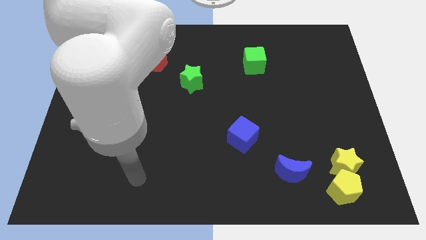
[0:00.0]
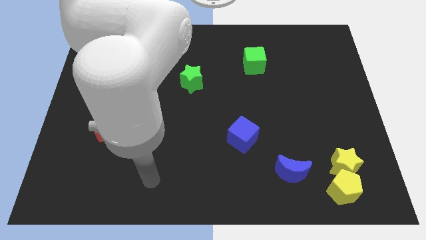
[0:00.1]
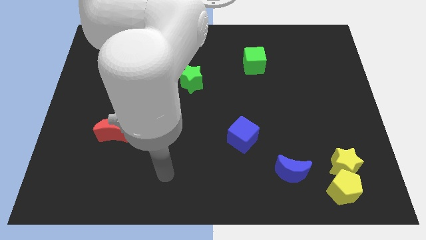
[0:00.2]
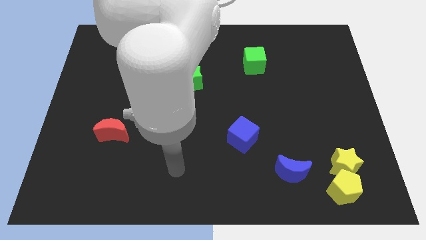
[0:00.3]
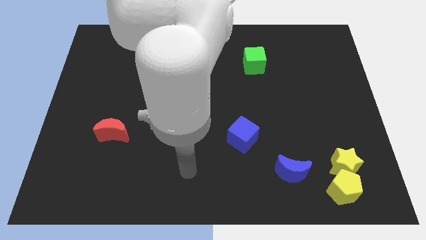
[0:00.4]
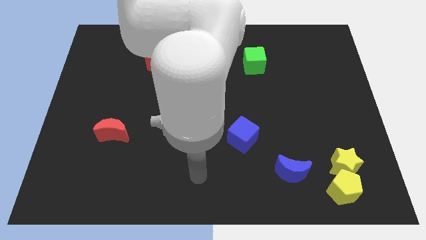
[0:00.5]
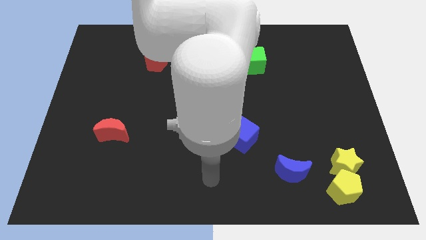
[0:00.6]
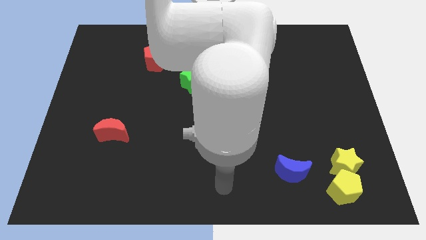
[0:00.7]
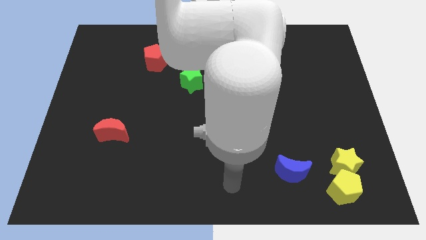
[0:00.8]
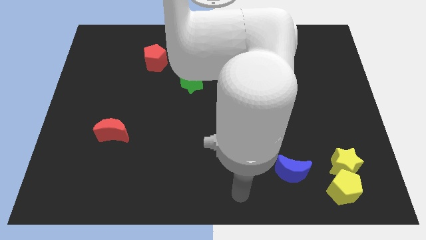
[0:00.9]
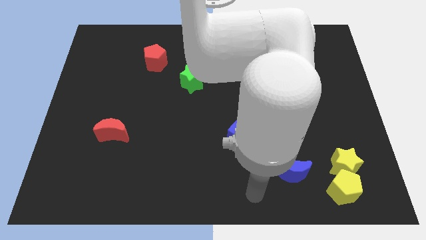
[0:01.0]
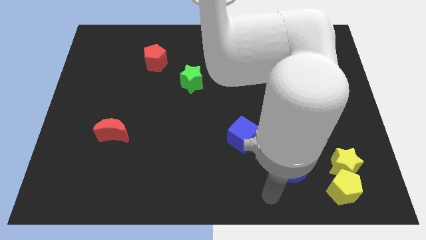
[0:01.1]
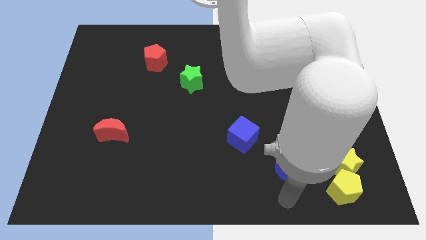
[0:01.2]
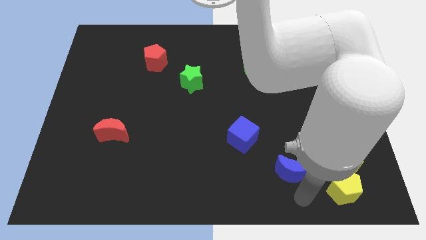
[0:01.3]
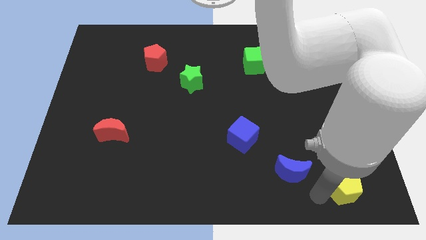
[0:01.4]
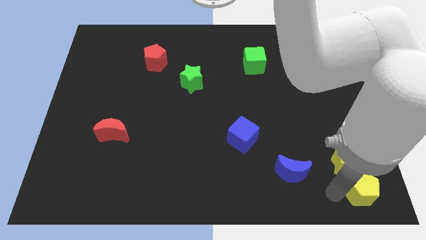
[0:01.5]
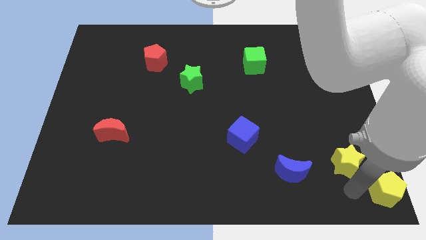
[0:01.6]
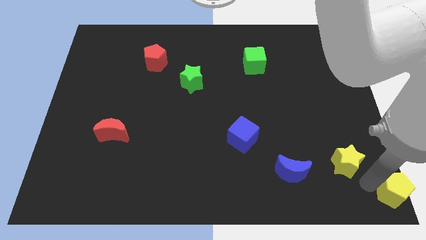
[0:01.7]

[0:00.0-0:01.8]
separate the yellow star from the yellow pentagon

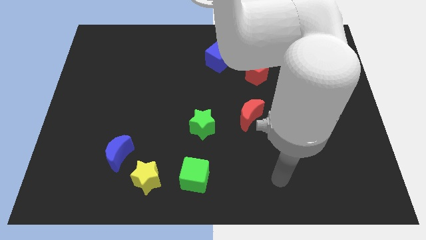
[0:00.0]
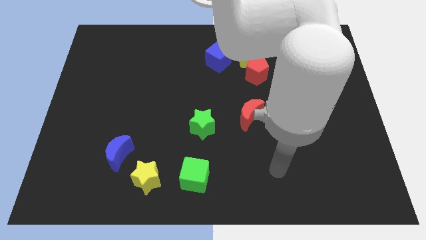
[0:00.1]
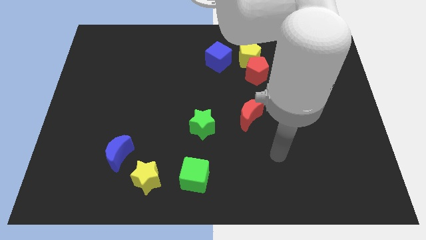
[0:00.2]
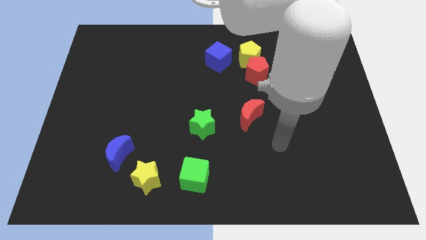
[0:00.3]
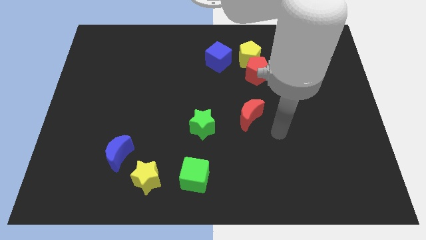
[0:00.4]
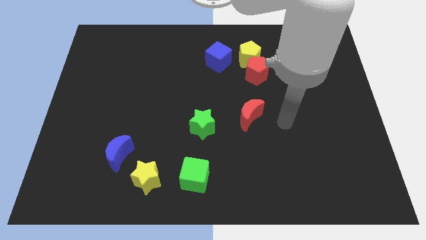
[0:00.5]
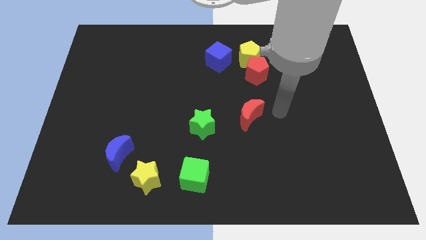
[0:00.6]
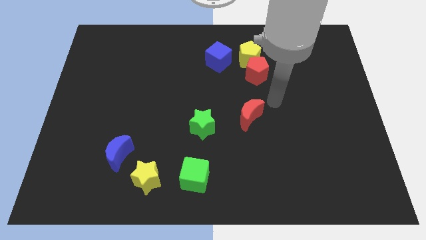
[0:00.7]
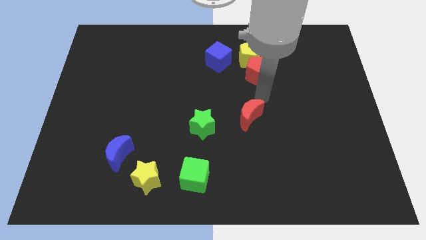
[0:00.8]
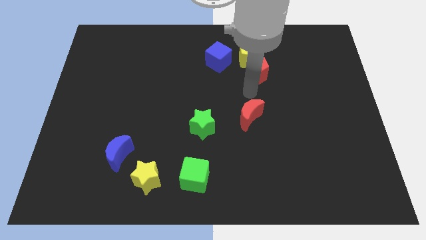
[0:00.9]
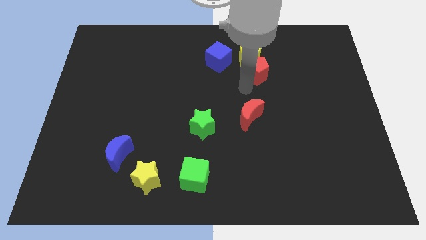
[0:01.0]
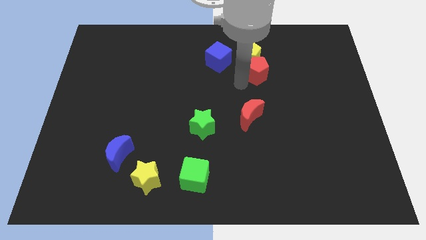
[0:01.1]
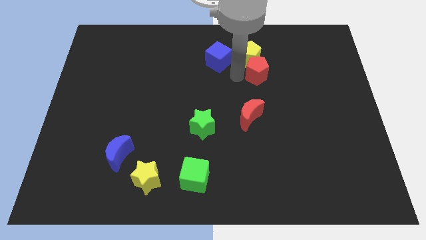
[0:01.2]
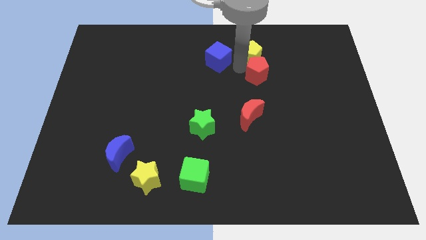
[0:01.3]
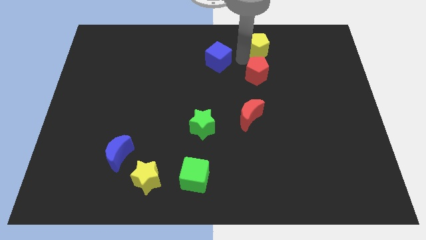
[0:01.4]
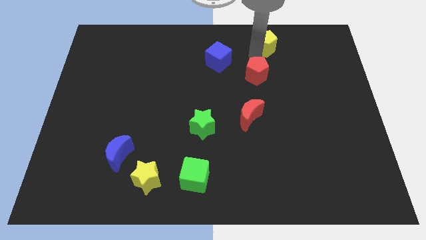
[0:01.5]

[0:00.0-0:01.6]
pull the red pentagon apart from the yellow pentagon

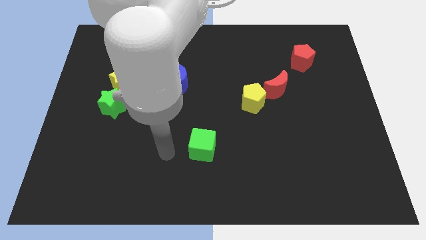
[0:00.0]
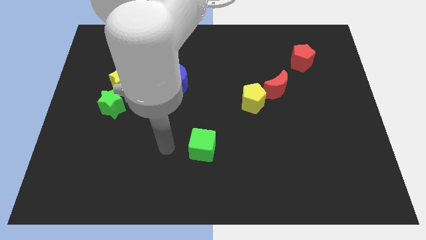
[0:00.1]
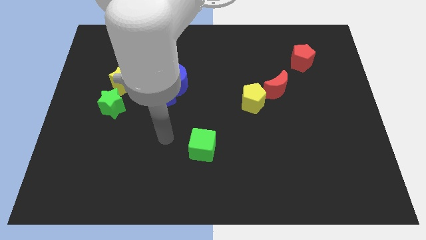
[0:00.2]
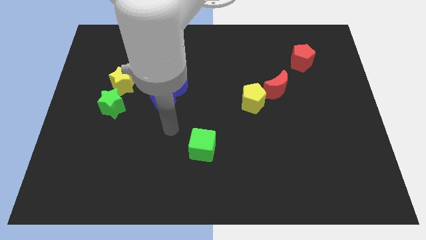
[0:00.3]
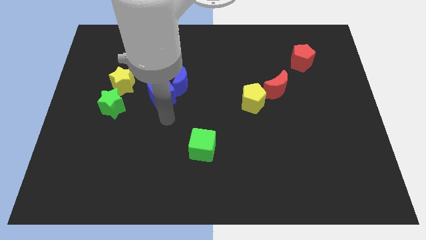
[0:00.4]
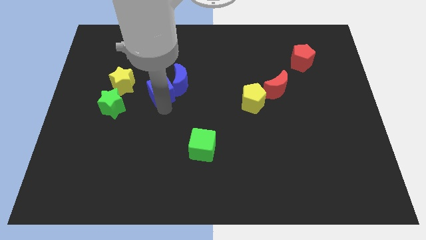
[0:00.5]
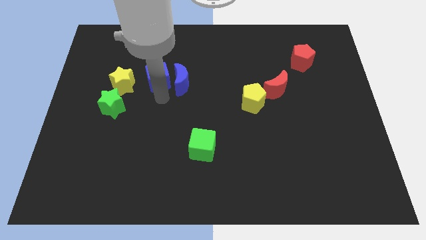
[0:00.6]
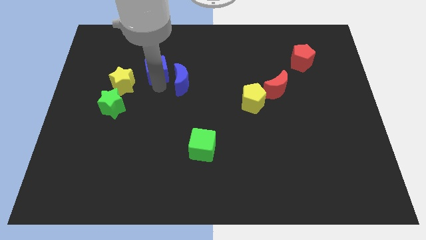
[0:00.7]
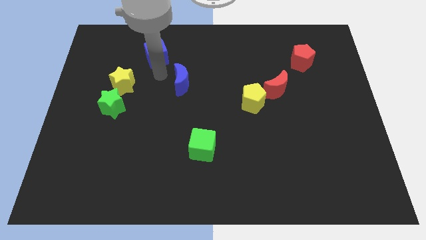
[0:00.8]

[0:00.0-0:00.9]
move the blue moon away from the blue cube

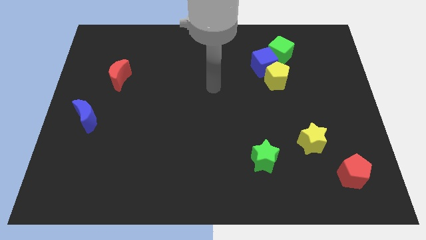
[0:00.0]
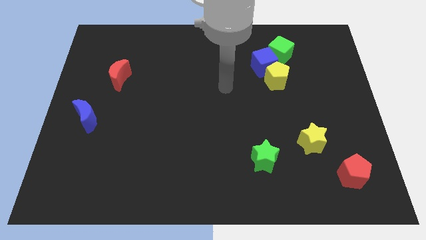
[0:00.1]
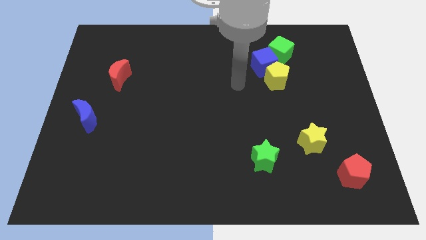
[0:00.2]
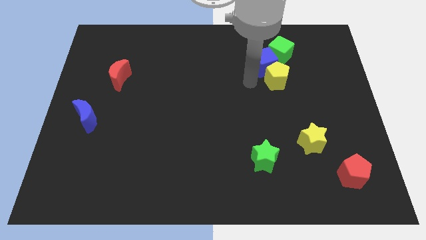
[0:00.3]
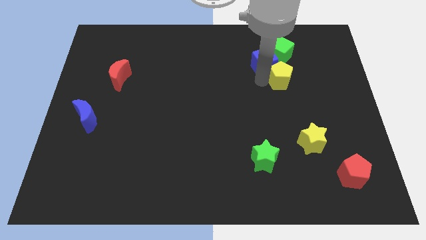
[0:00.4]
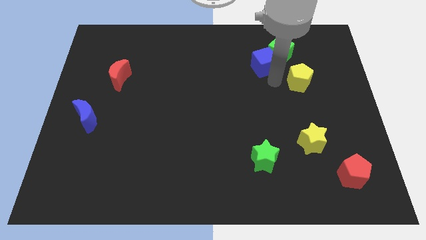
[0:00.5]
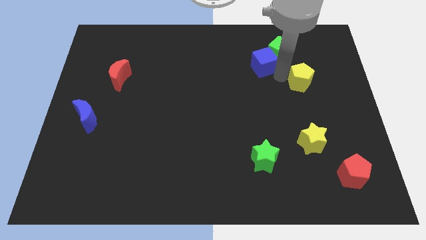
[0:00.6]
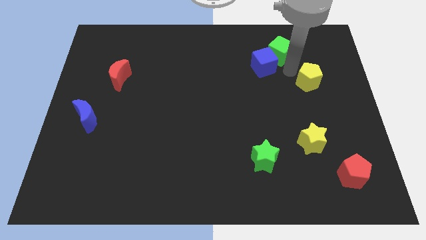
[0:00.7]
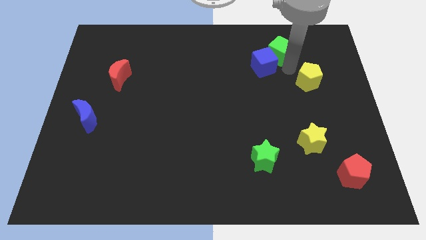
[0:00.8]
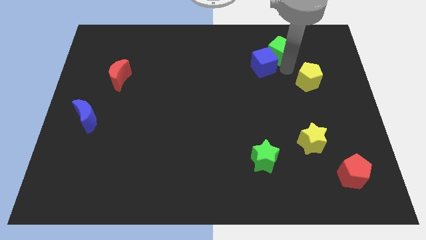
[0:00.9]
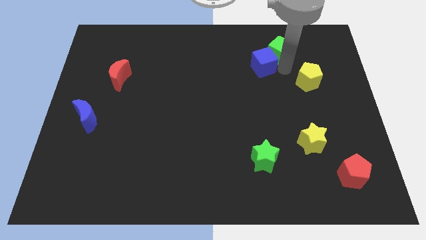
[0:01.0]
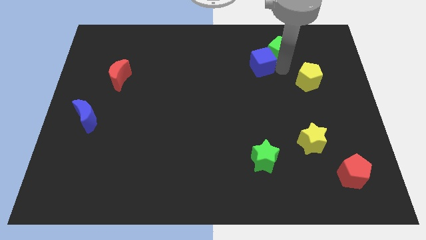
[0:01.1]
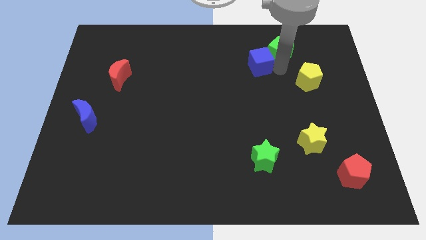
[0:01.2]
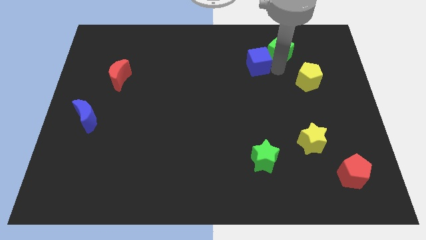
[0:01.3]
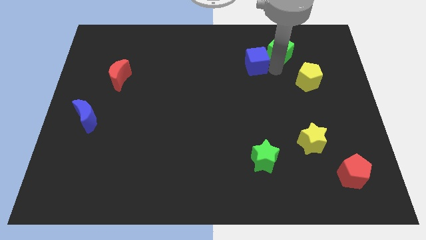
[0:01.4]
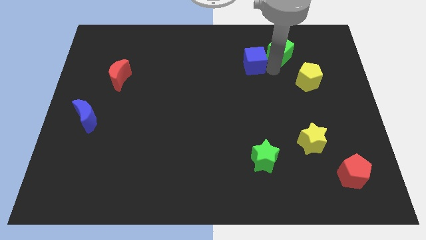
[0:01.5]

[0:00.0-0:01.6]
pull the blue cube apart from the yellow pentagon and green cube

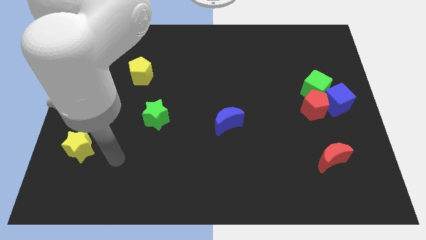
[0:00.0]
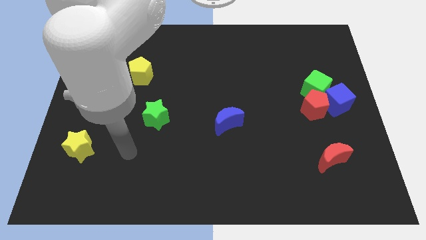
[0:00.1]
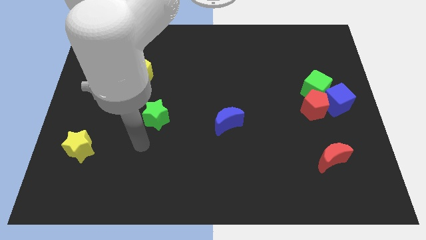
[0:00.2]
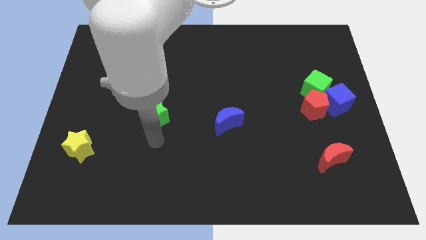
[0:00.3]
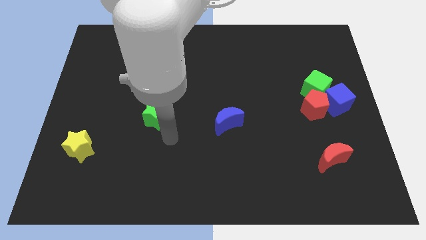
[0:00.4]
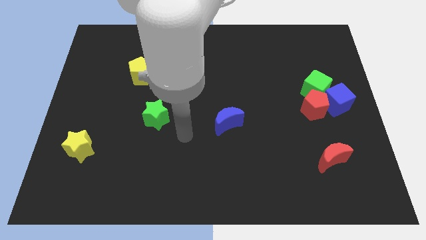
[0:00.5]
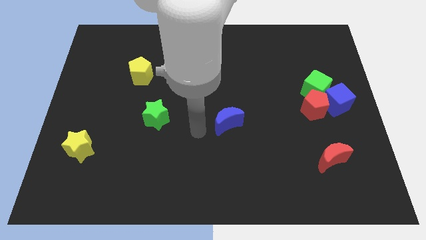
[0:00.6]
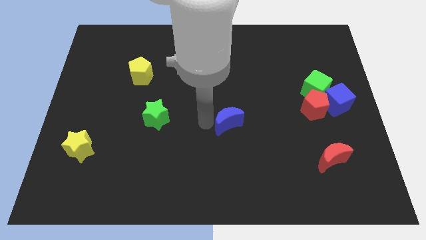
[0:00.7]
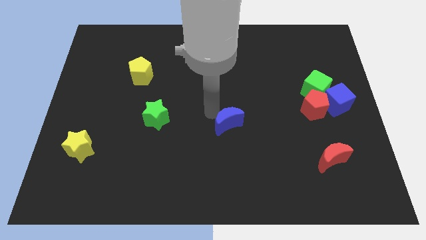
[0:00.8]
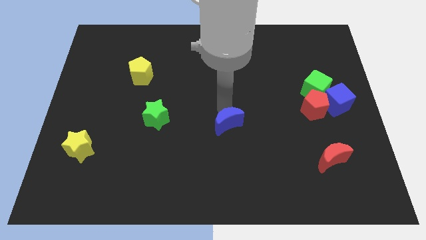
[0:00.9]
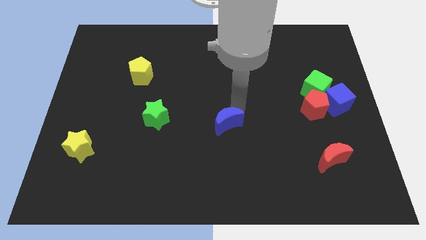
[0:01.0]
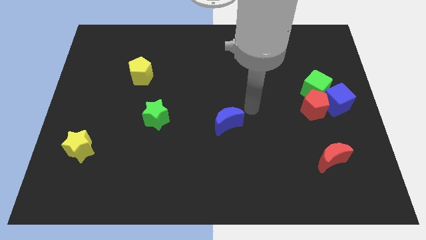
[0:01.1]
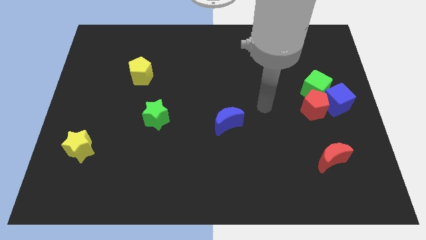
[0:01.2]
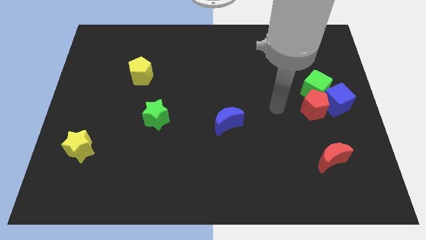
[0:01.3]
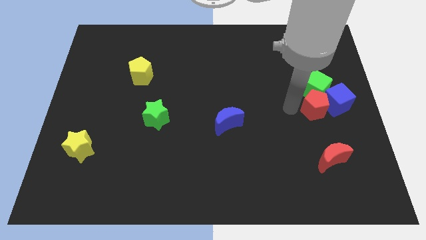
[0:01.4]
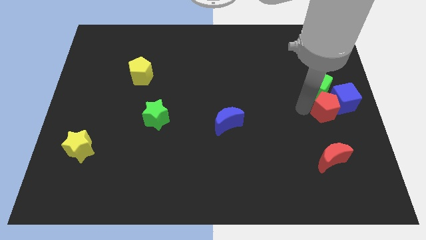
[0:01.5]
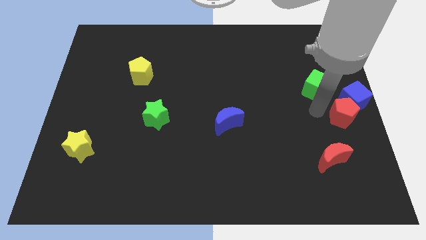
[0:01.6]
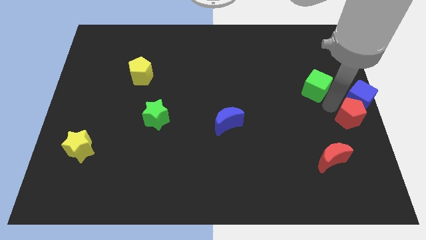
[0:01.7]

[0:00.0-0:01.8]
move the green cube away from the red pentagon and blue cube

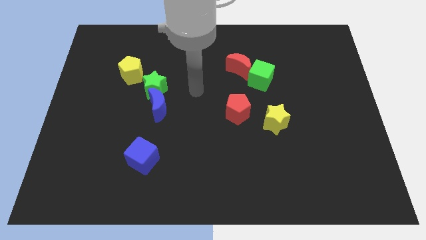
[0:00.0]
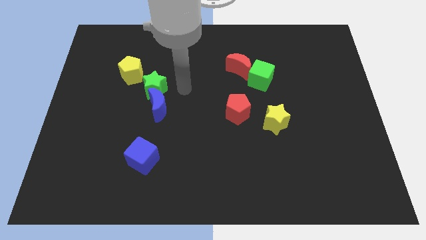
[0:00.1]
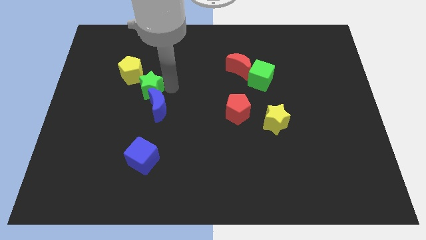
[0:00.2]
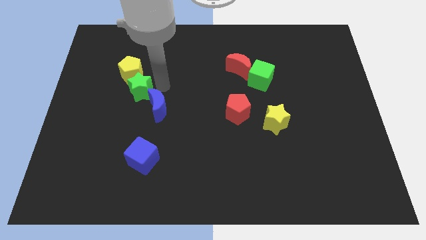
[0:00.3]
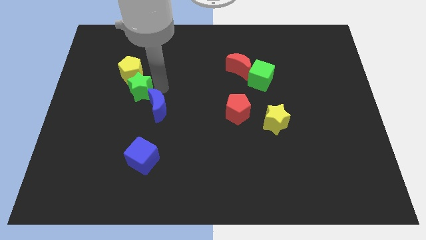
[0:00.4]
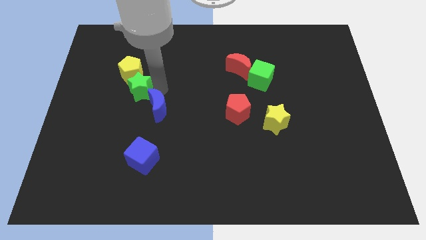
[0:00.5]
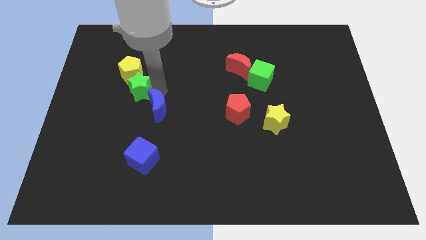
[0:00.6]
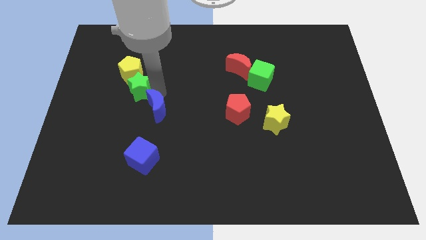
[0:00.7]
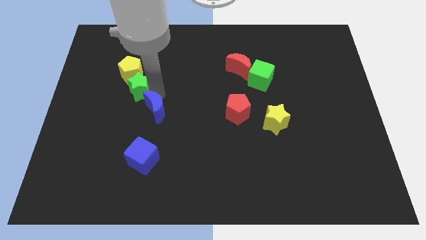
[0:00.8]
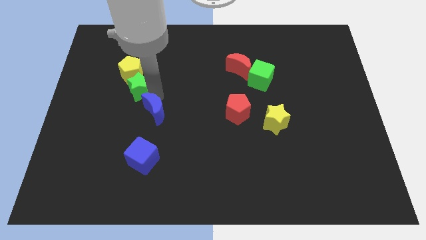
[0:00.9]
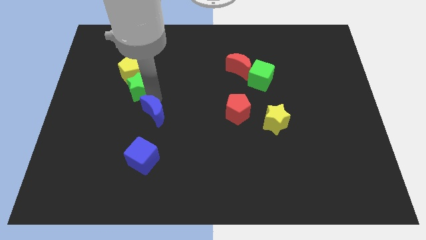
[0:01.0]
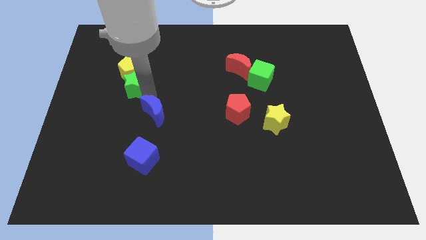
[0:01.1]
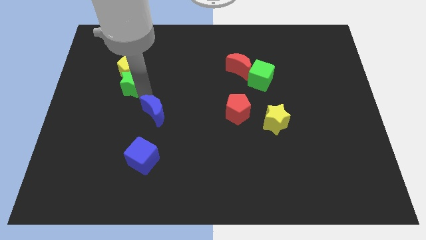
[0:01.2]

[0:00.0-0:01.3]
move the blue moon away from the green star

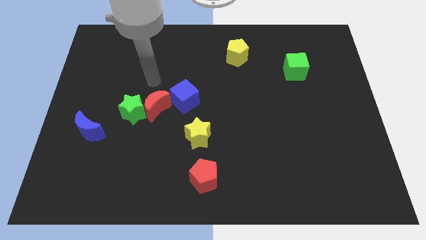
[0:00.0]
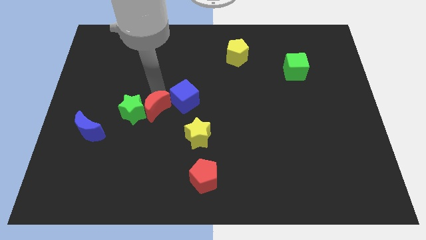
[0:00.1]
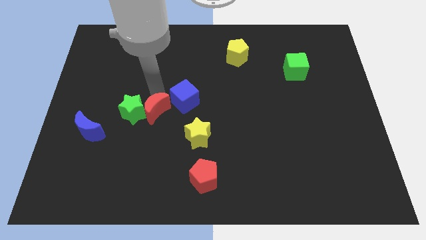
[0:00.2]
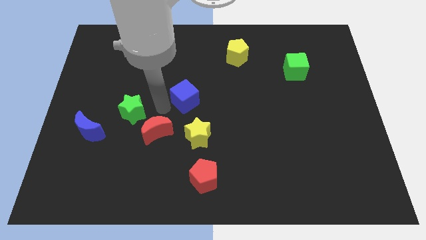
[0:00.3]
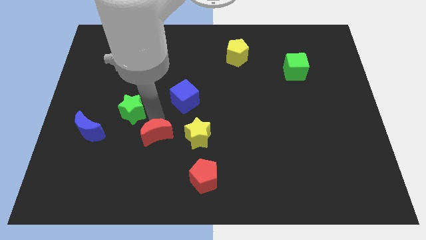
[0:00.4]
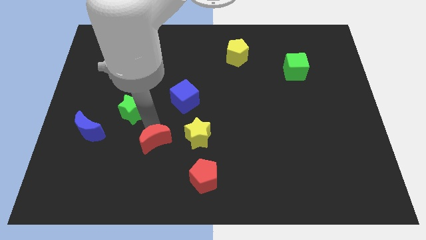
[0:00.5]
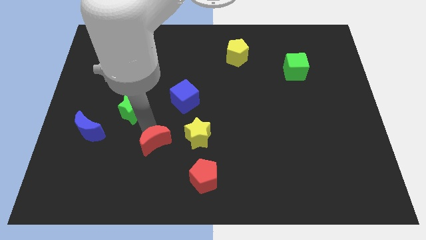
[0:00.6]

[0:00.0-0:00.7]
move the green star away from the red moon
